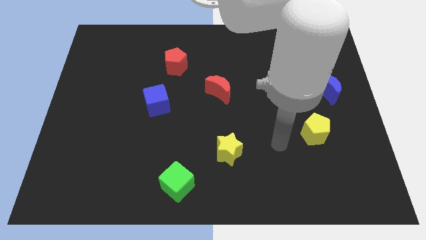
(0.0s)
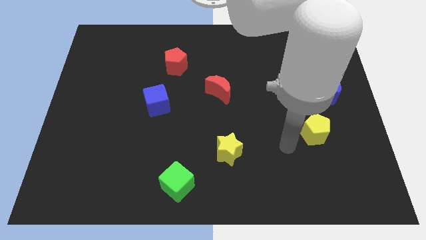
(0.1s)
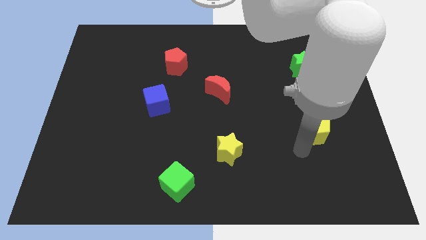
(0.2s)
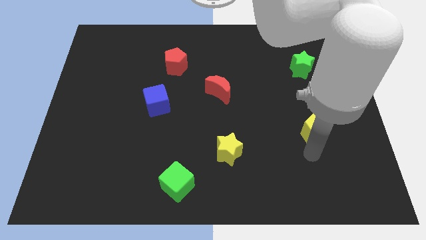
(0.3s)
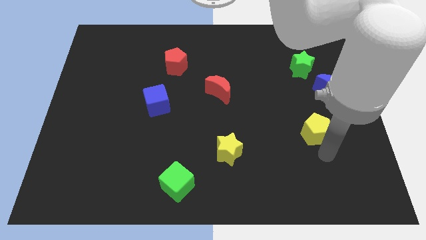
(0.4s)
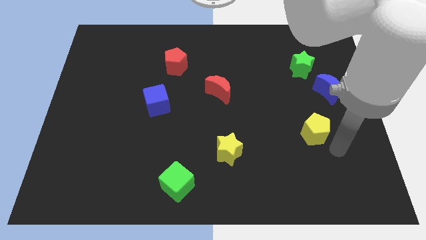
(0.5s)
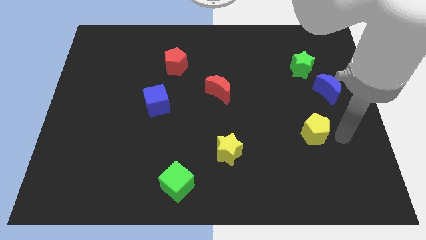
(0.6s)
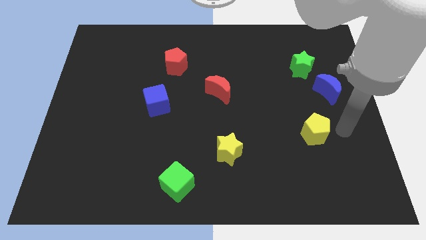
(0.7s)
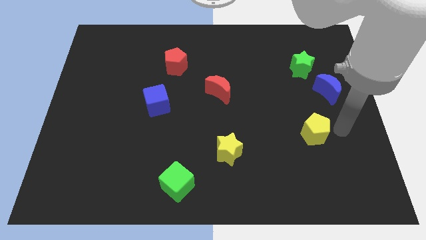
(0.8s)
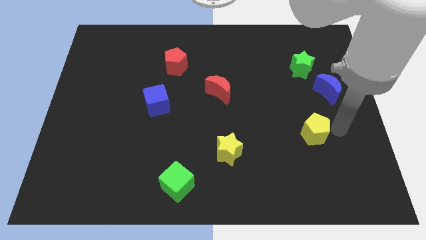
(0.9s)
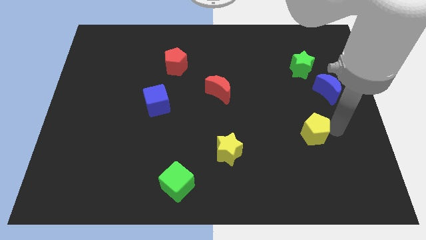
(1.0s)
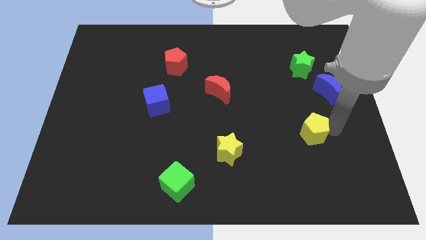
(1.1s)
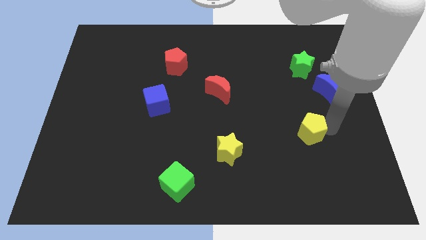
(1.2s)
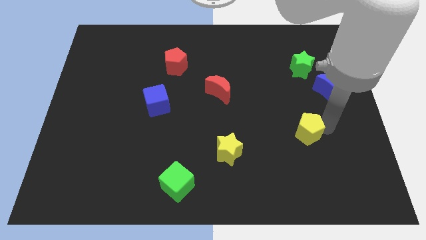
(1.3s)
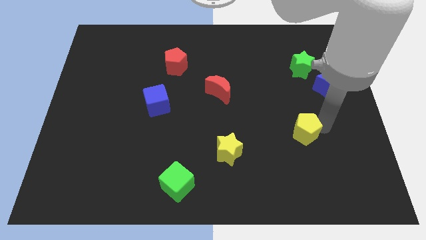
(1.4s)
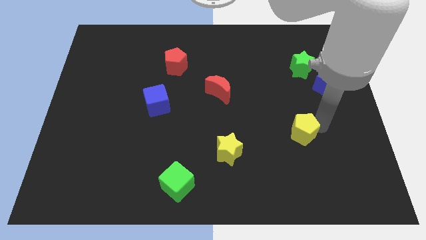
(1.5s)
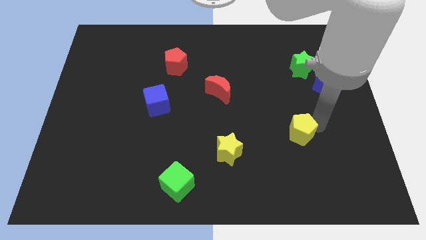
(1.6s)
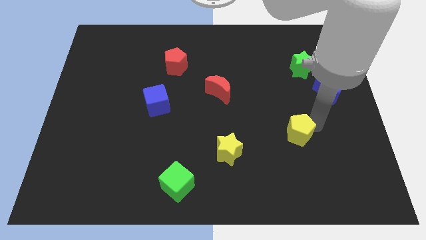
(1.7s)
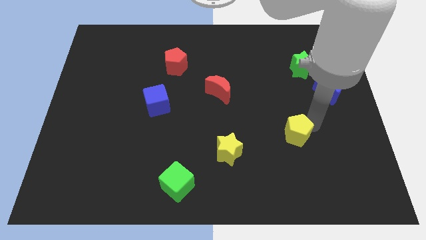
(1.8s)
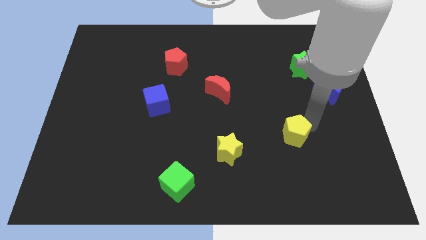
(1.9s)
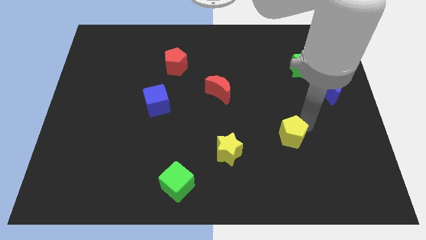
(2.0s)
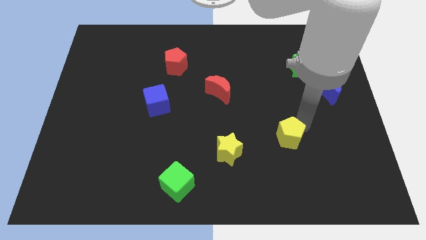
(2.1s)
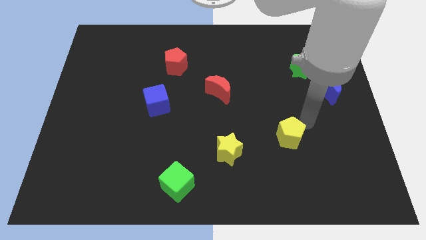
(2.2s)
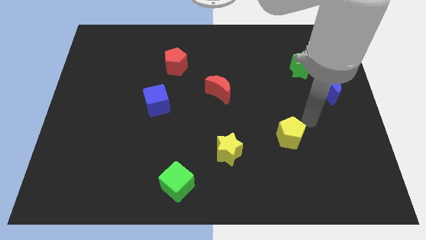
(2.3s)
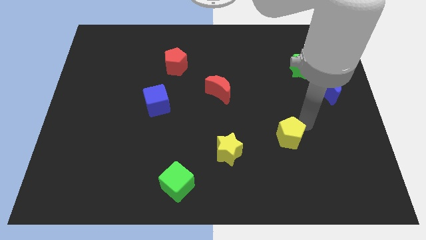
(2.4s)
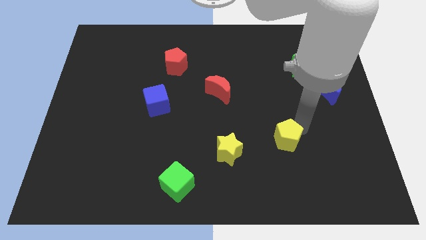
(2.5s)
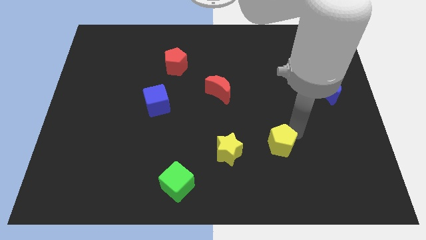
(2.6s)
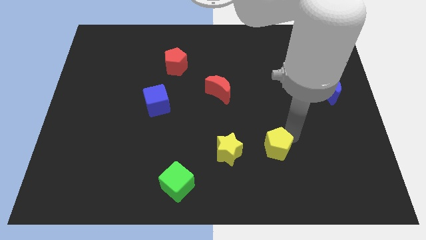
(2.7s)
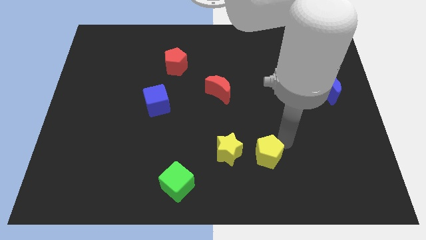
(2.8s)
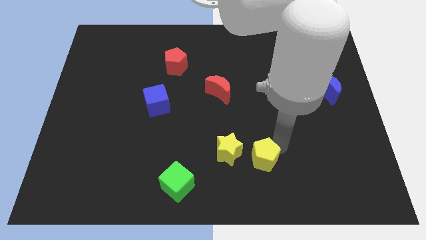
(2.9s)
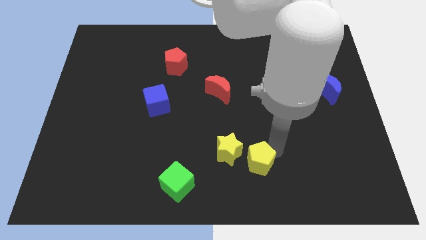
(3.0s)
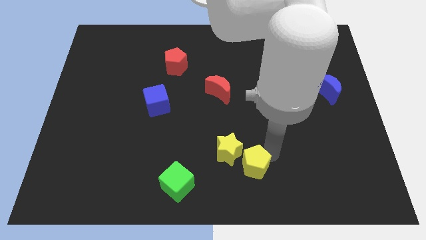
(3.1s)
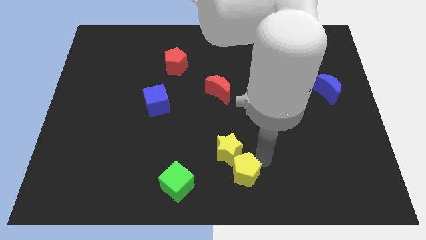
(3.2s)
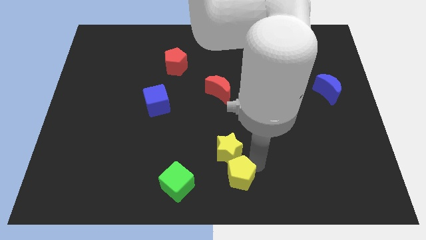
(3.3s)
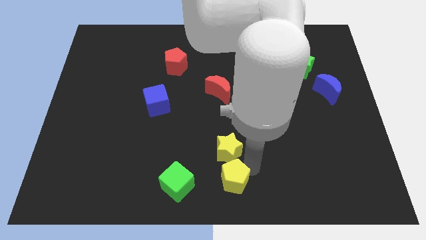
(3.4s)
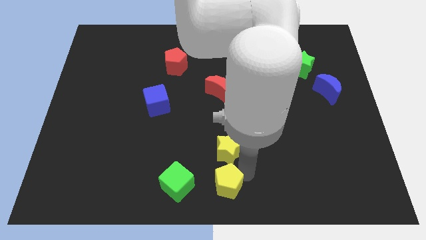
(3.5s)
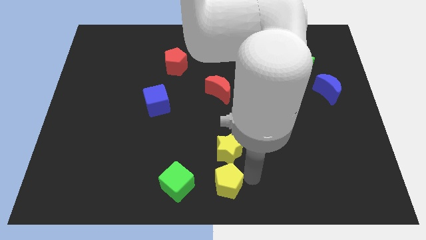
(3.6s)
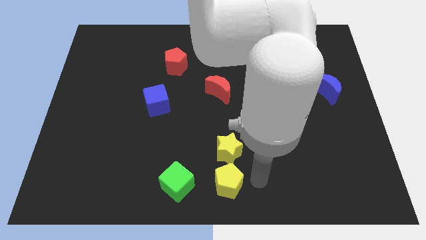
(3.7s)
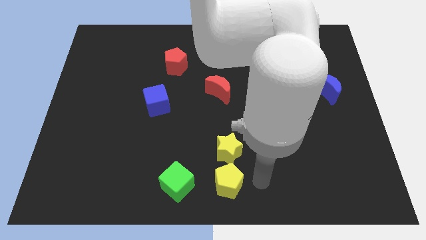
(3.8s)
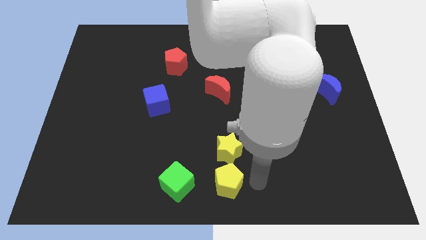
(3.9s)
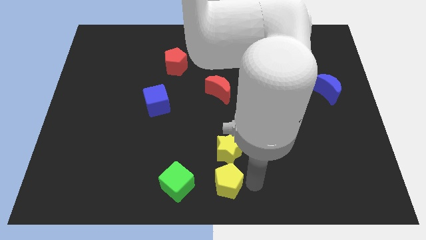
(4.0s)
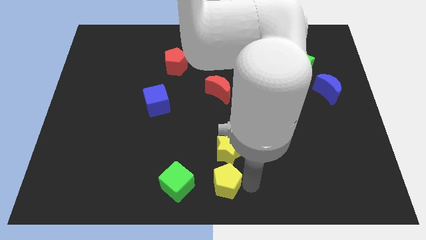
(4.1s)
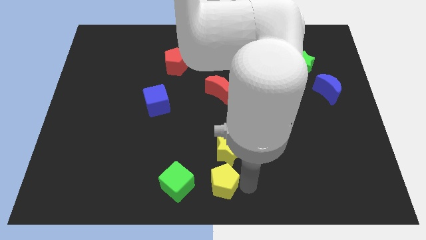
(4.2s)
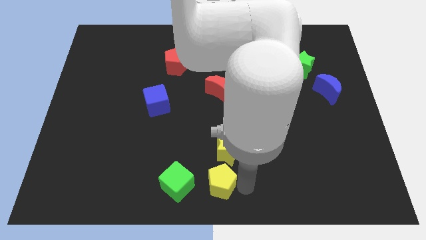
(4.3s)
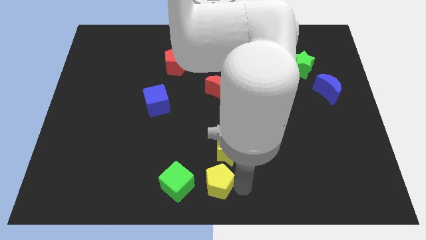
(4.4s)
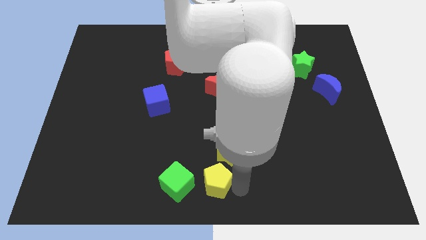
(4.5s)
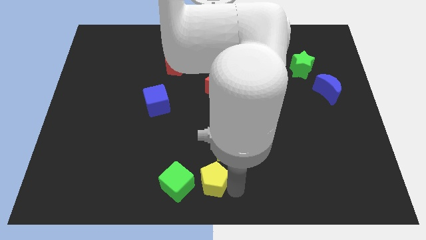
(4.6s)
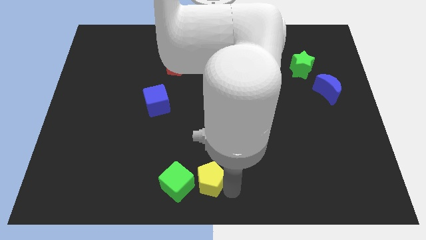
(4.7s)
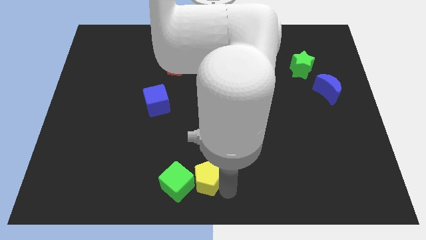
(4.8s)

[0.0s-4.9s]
slide the yellow pentagon close to the green cube

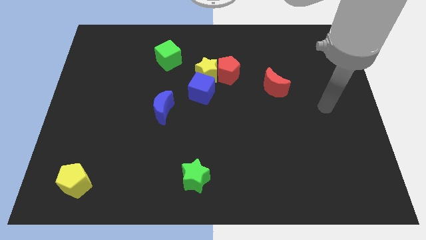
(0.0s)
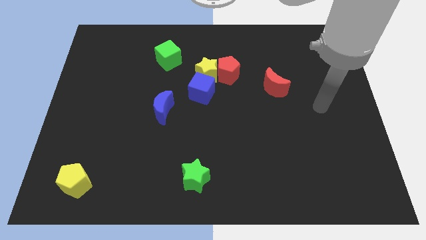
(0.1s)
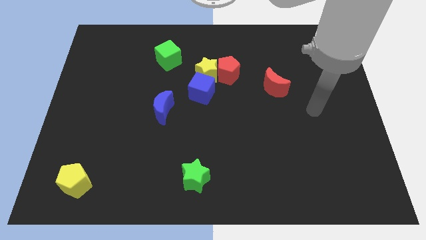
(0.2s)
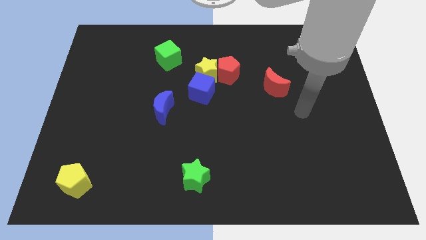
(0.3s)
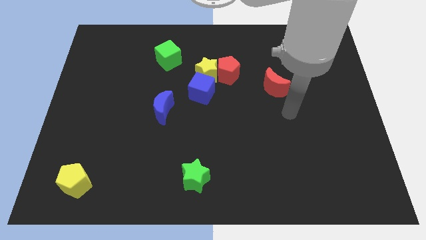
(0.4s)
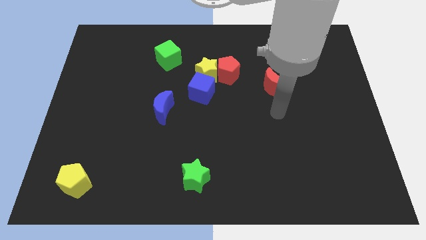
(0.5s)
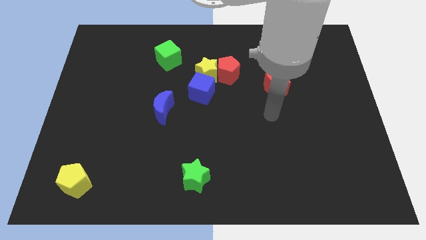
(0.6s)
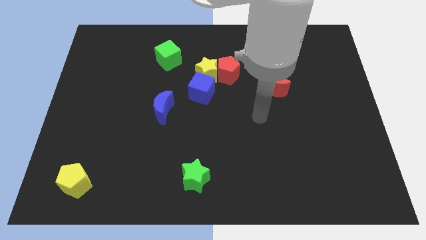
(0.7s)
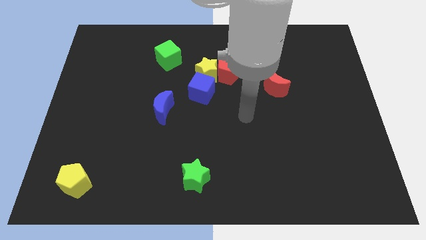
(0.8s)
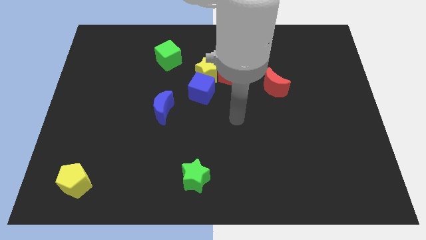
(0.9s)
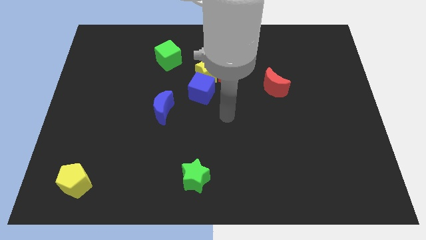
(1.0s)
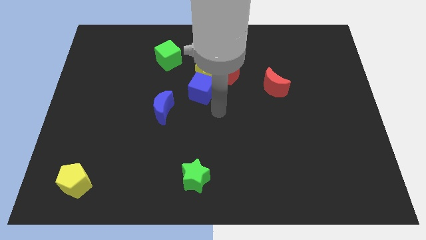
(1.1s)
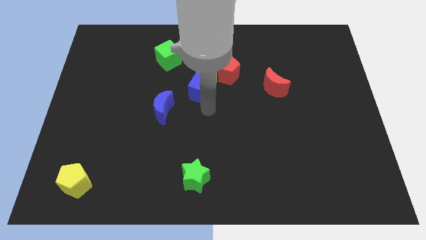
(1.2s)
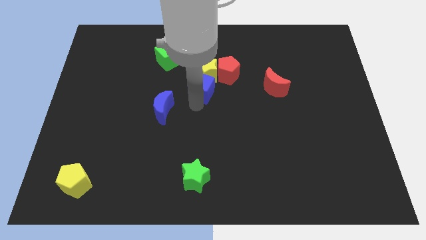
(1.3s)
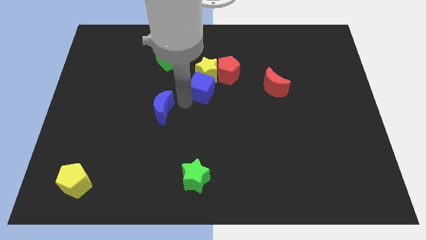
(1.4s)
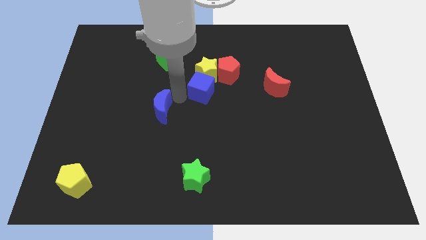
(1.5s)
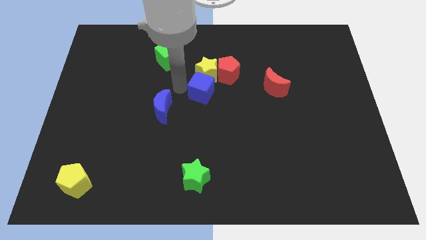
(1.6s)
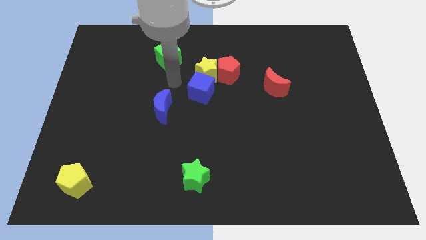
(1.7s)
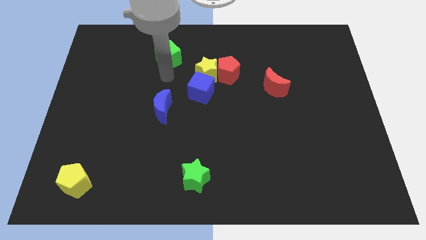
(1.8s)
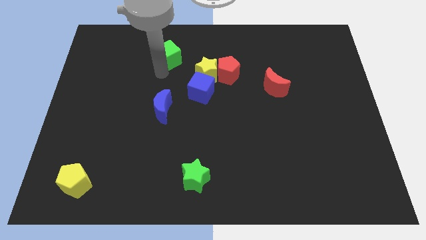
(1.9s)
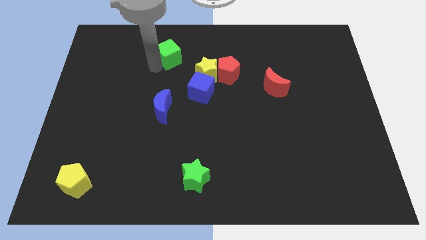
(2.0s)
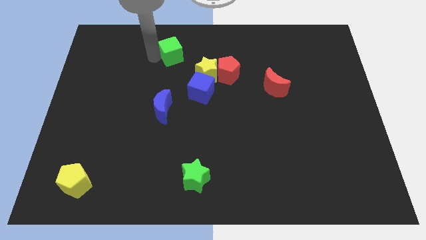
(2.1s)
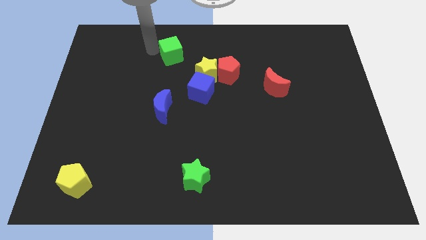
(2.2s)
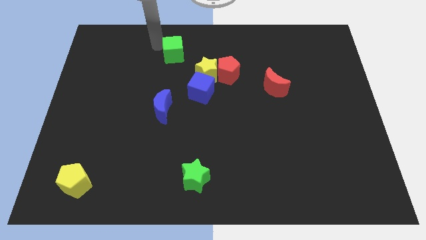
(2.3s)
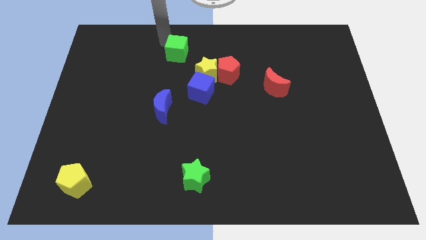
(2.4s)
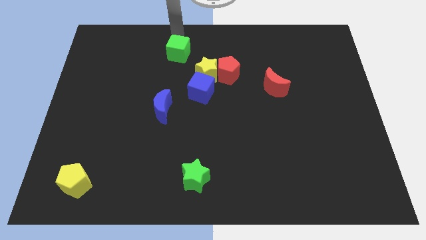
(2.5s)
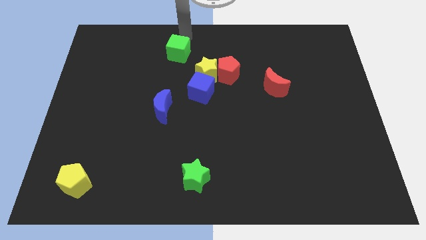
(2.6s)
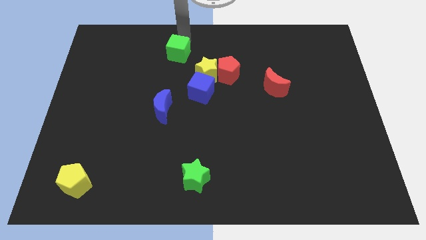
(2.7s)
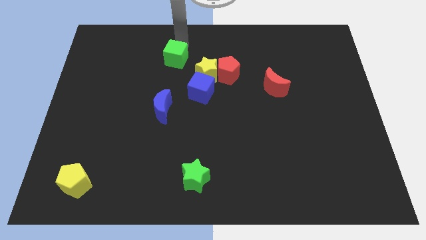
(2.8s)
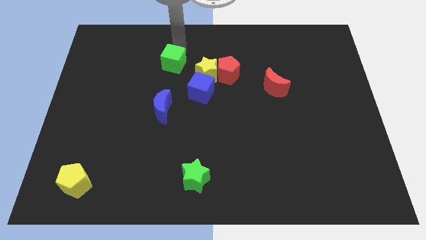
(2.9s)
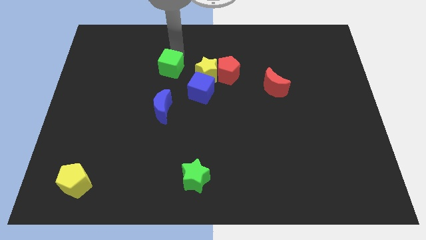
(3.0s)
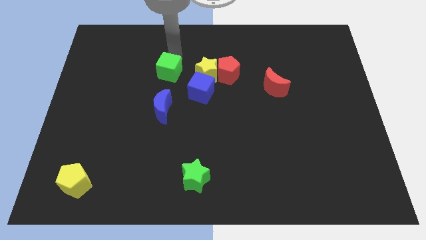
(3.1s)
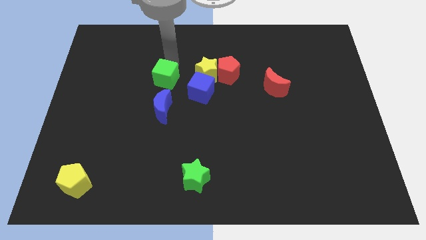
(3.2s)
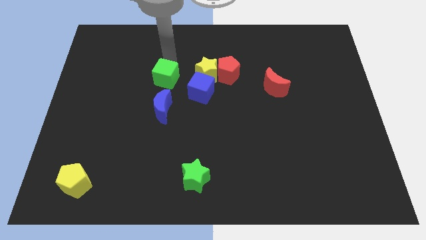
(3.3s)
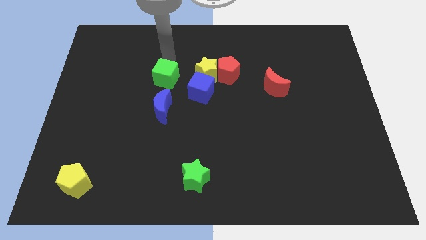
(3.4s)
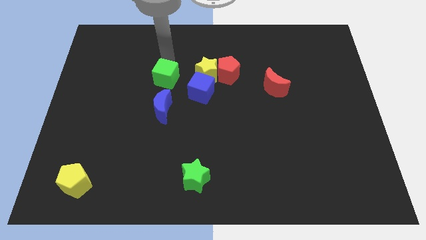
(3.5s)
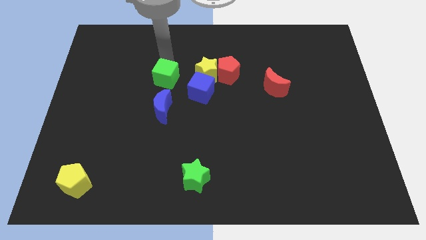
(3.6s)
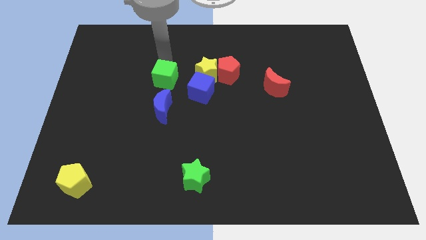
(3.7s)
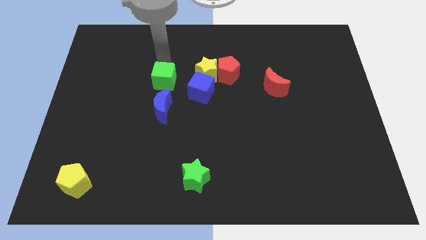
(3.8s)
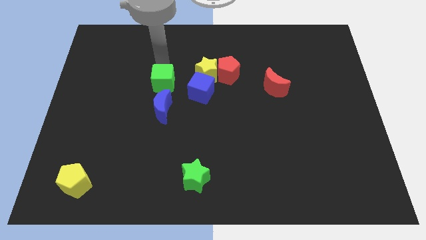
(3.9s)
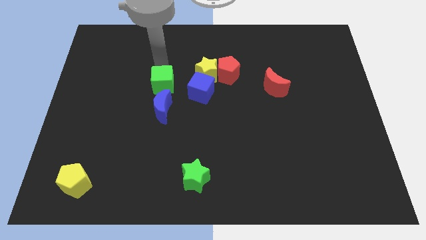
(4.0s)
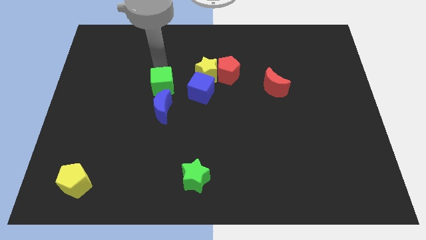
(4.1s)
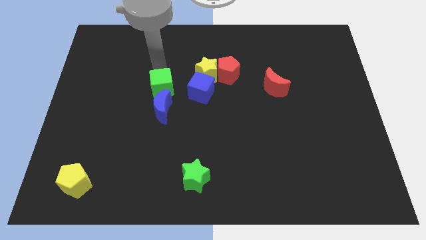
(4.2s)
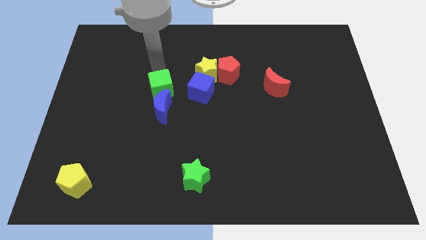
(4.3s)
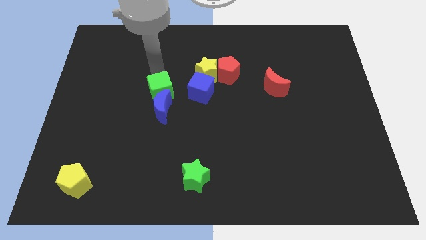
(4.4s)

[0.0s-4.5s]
put the green cube towards the blue moon
